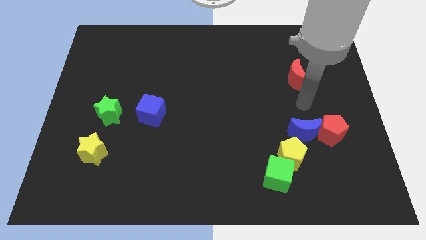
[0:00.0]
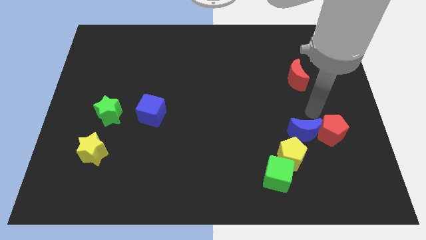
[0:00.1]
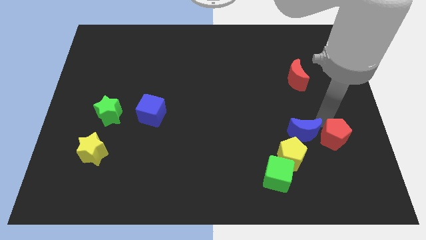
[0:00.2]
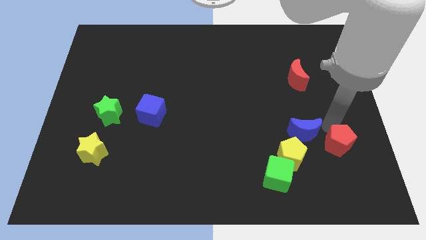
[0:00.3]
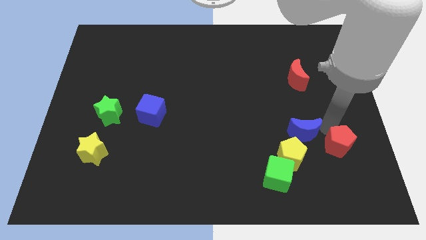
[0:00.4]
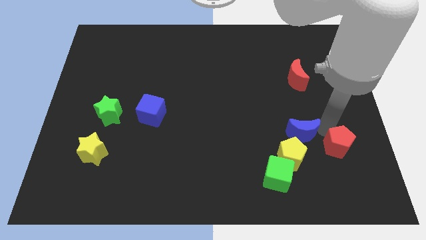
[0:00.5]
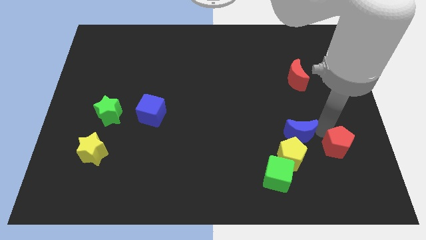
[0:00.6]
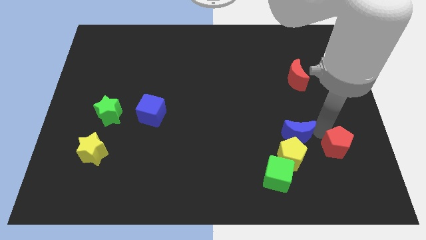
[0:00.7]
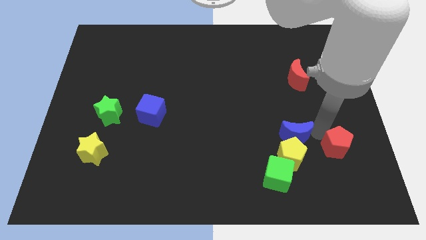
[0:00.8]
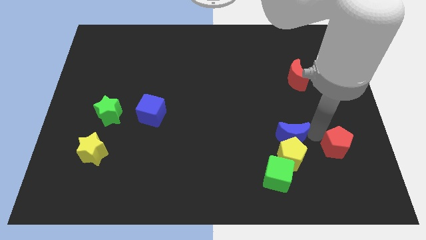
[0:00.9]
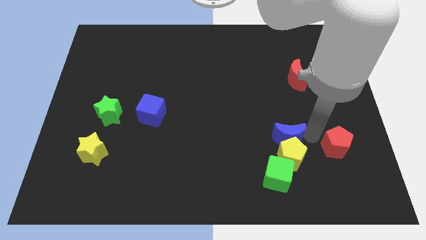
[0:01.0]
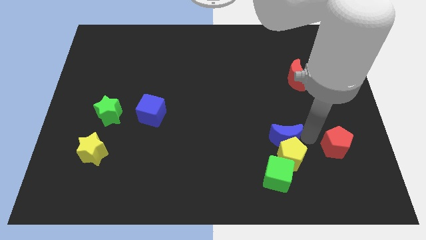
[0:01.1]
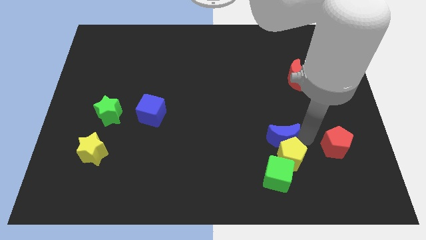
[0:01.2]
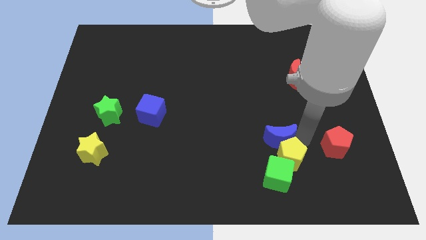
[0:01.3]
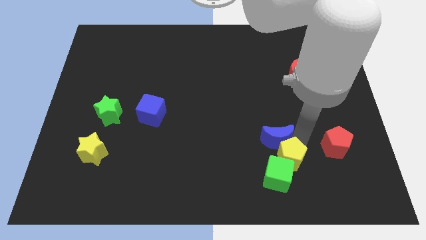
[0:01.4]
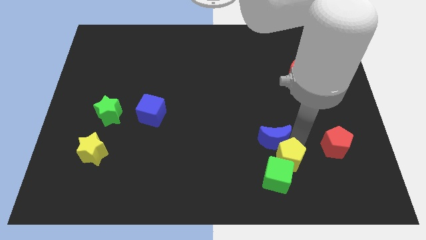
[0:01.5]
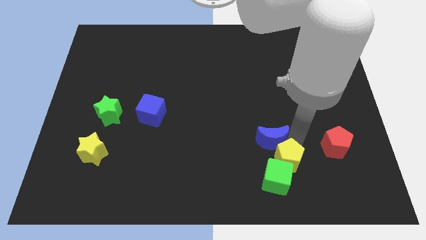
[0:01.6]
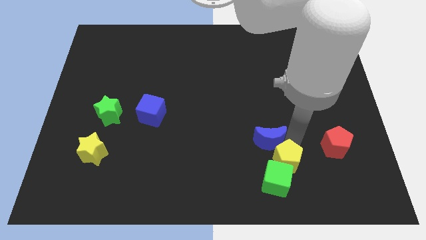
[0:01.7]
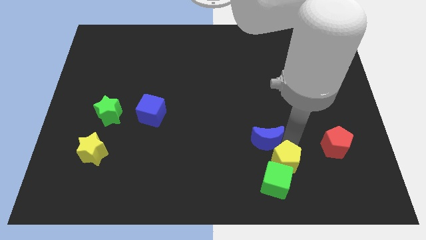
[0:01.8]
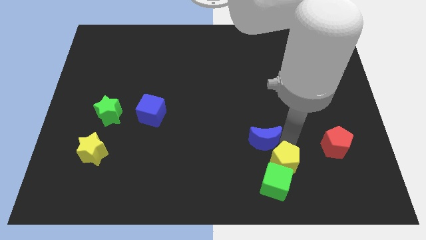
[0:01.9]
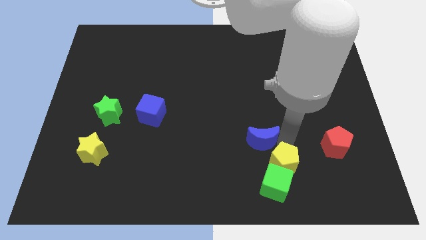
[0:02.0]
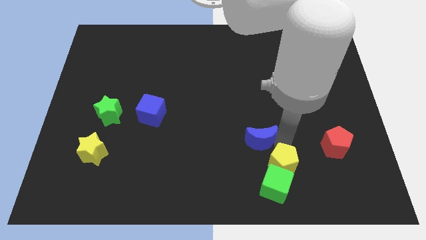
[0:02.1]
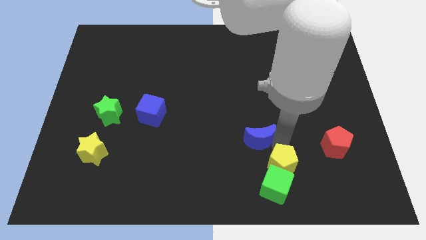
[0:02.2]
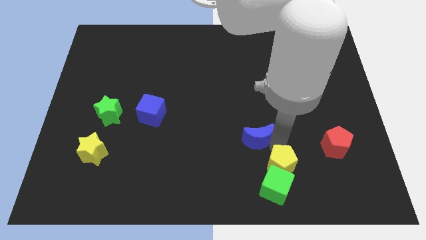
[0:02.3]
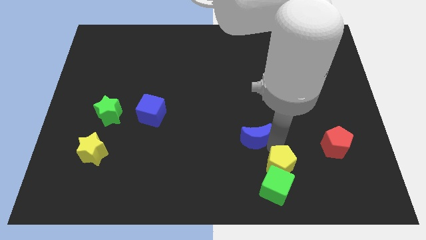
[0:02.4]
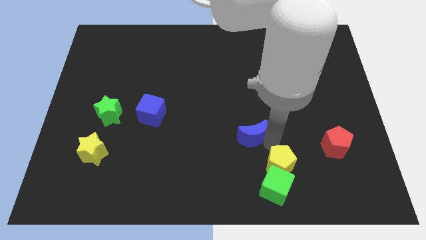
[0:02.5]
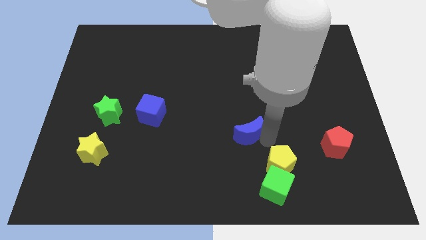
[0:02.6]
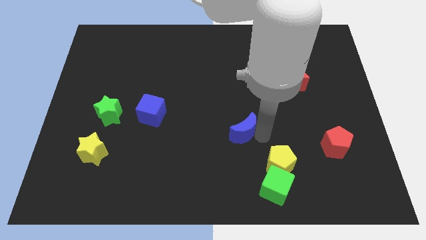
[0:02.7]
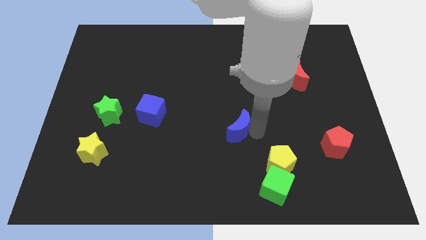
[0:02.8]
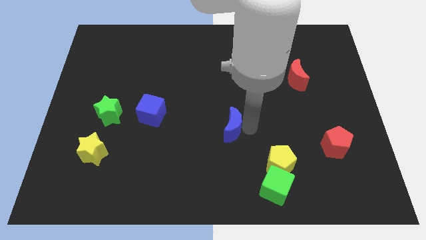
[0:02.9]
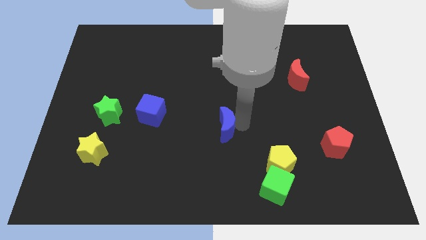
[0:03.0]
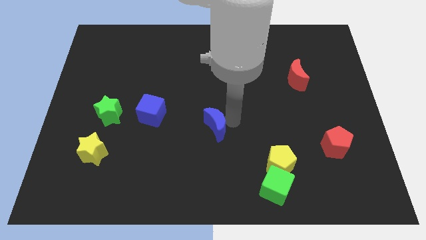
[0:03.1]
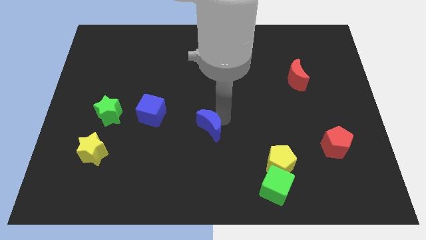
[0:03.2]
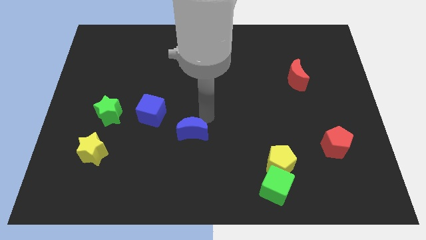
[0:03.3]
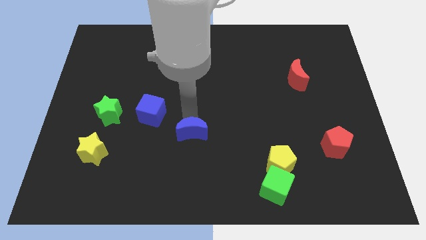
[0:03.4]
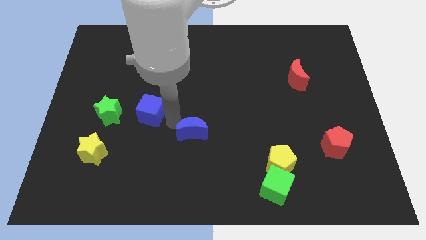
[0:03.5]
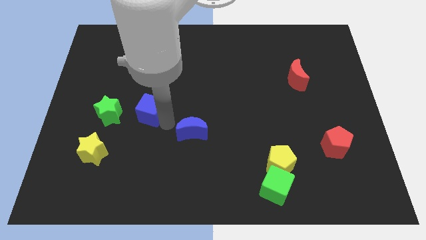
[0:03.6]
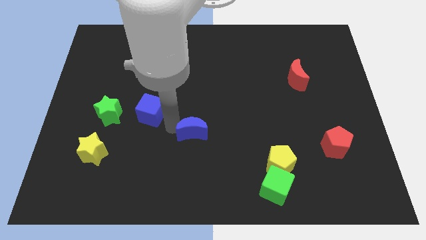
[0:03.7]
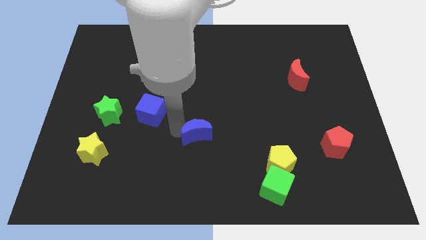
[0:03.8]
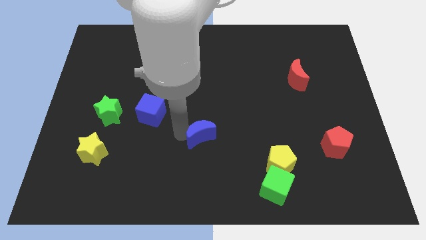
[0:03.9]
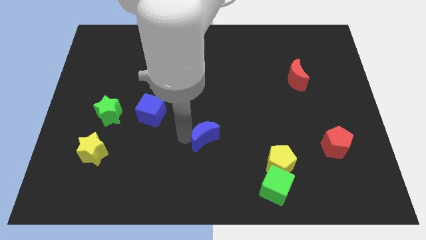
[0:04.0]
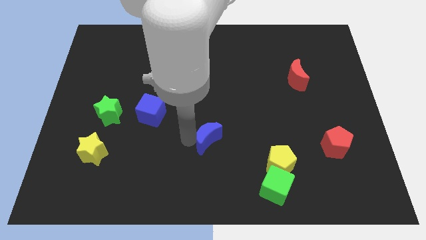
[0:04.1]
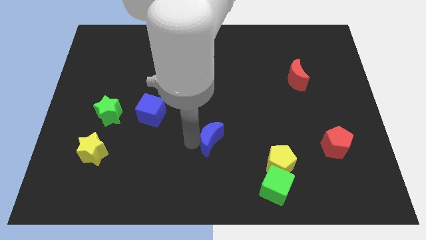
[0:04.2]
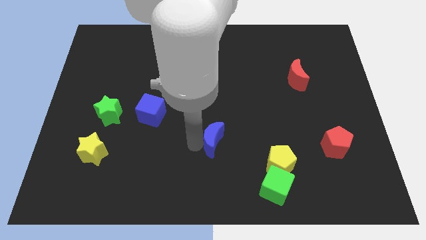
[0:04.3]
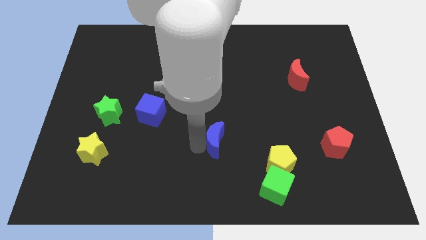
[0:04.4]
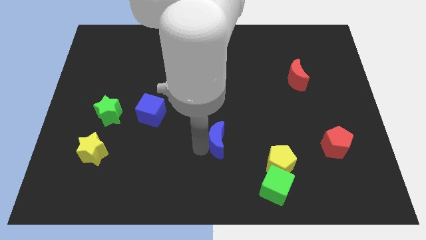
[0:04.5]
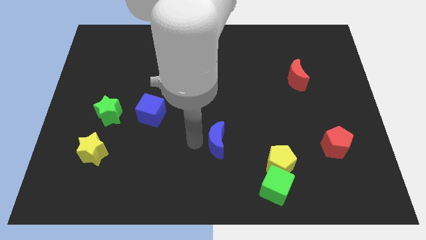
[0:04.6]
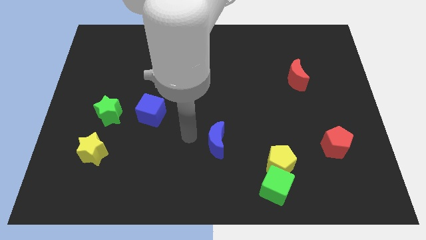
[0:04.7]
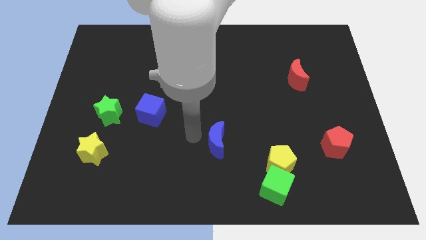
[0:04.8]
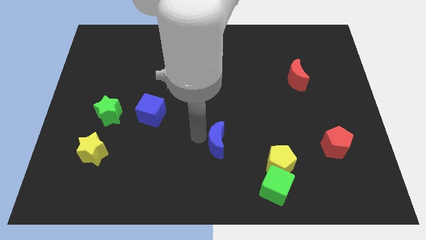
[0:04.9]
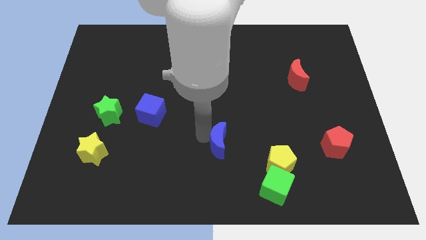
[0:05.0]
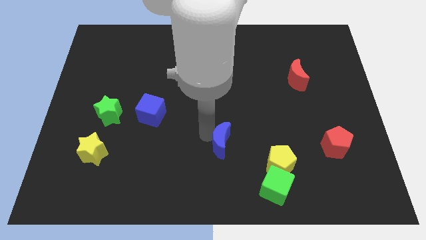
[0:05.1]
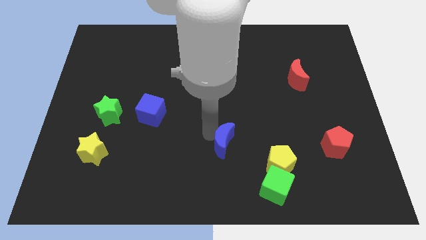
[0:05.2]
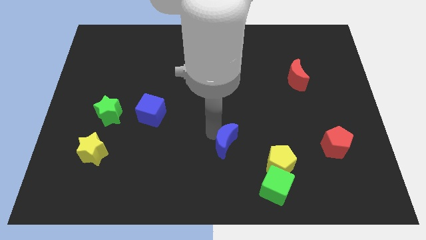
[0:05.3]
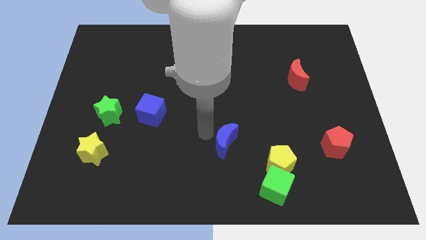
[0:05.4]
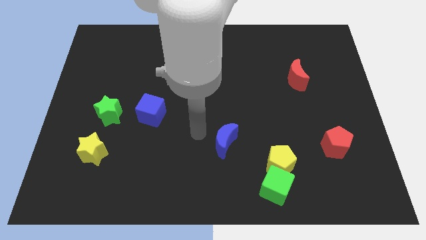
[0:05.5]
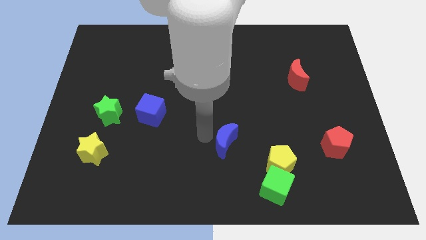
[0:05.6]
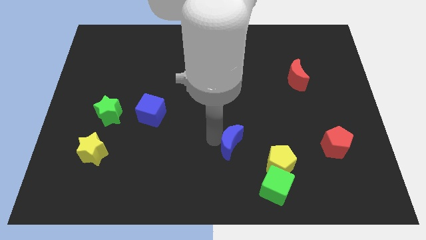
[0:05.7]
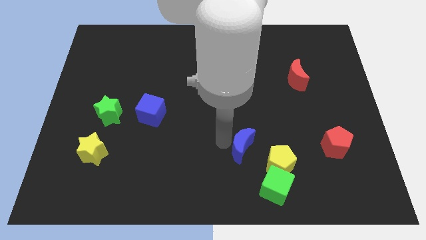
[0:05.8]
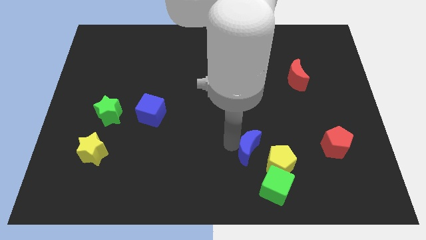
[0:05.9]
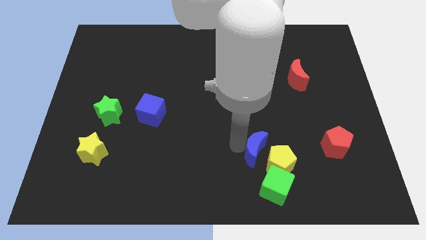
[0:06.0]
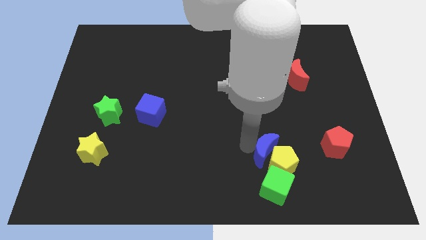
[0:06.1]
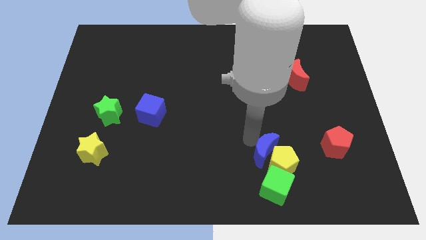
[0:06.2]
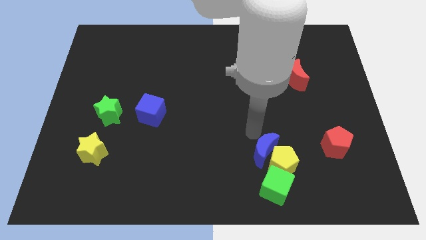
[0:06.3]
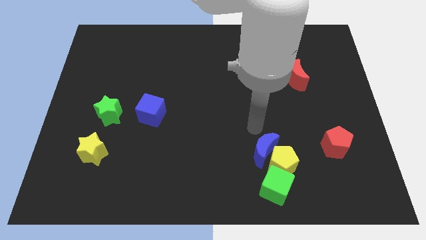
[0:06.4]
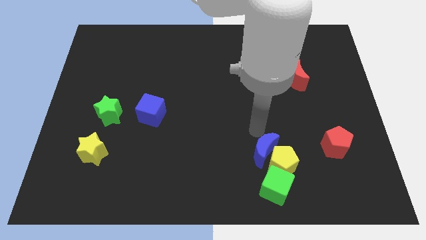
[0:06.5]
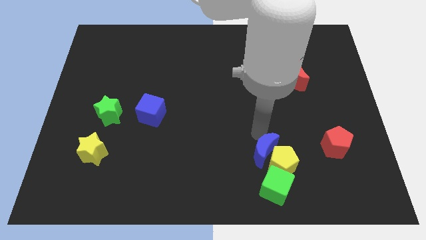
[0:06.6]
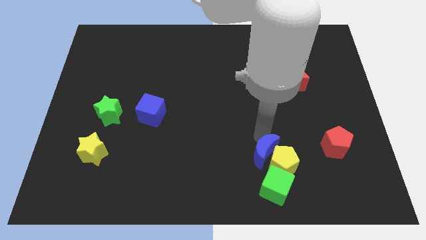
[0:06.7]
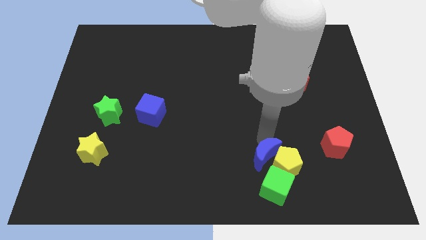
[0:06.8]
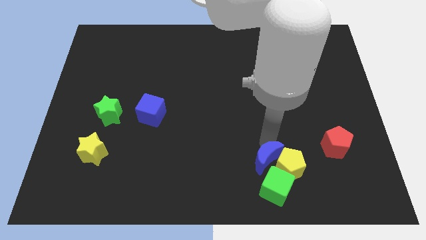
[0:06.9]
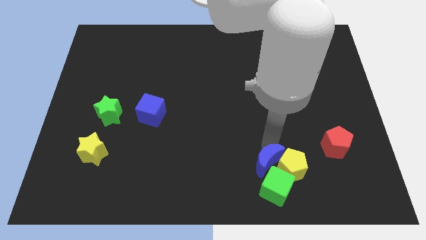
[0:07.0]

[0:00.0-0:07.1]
push the blue moon to the green cube
